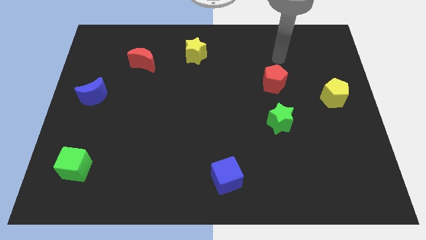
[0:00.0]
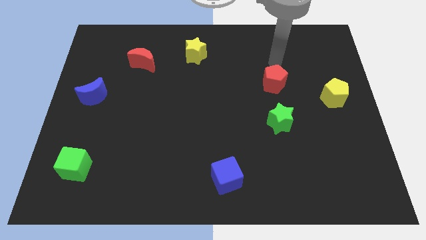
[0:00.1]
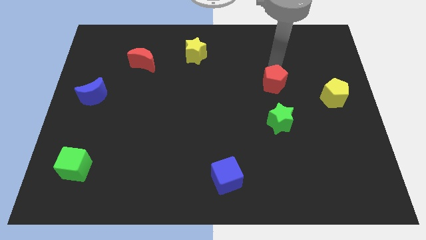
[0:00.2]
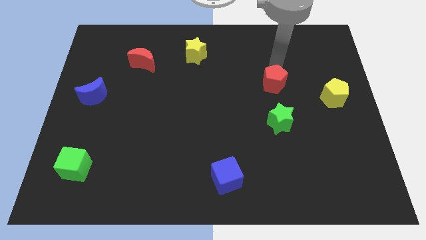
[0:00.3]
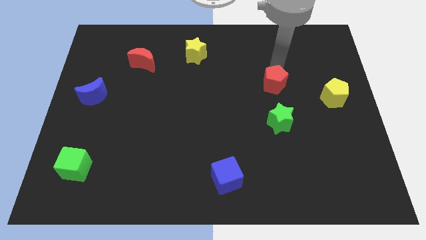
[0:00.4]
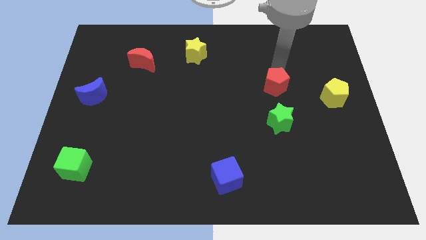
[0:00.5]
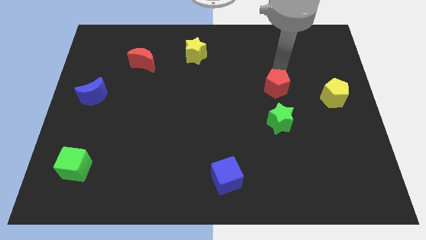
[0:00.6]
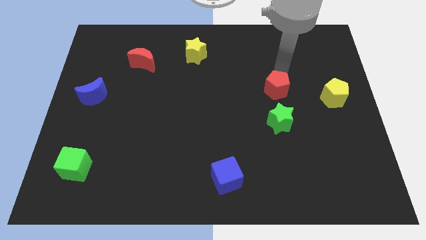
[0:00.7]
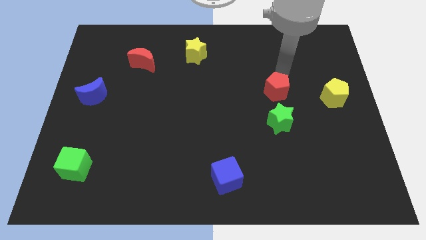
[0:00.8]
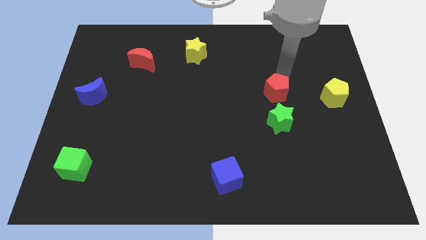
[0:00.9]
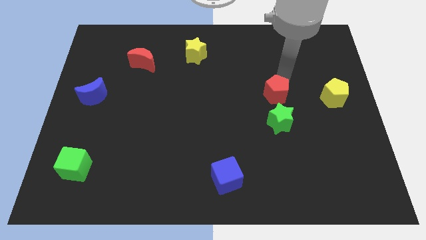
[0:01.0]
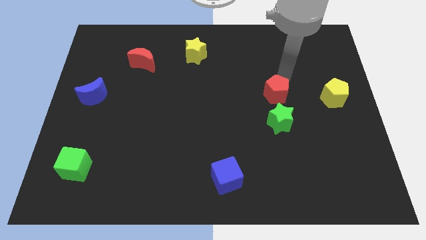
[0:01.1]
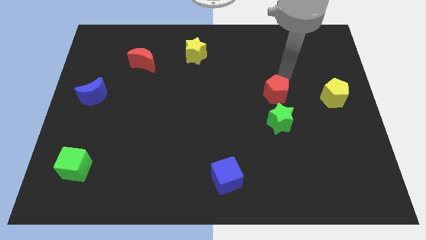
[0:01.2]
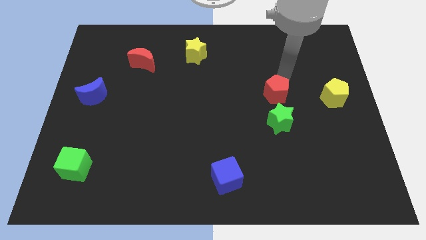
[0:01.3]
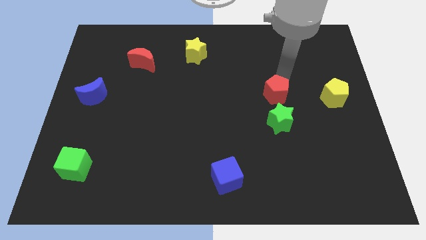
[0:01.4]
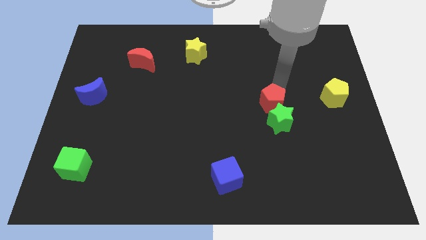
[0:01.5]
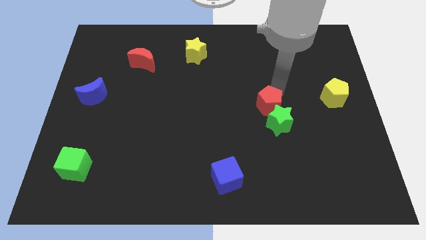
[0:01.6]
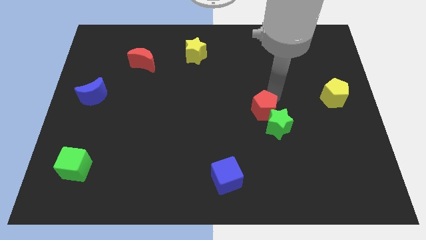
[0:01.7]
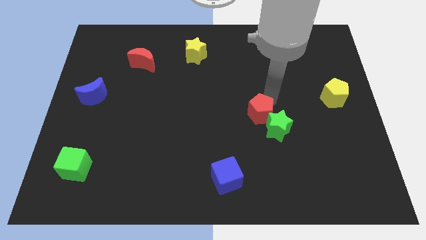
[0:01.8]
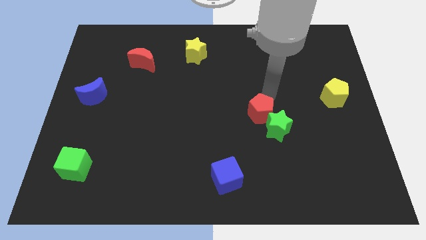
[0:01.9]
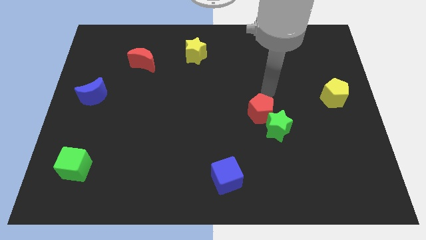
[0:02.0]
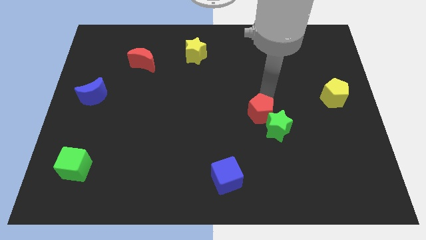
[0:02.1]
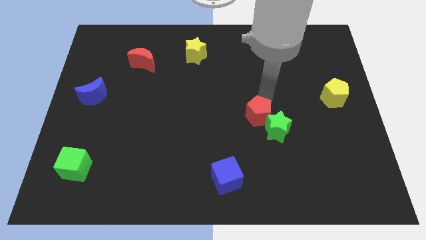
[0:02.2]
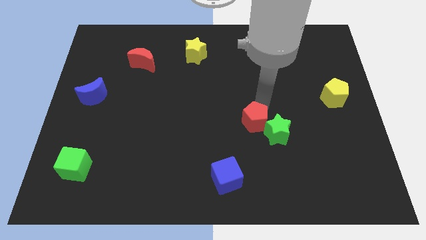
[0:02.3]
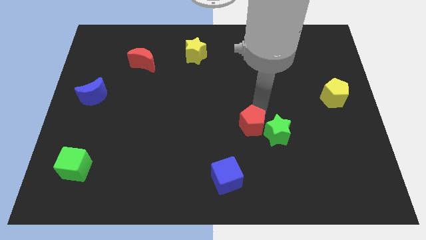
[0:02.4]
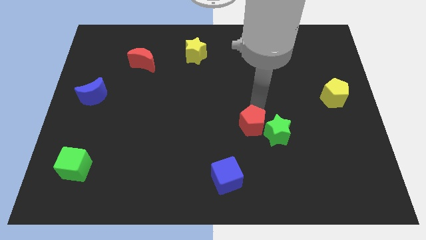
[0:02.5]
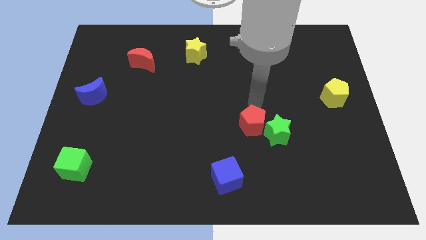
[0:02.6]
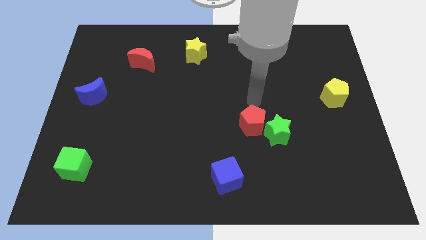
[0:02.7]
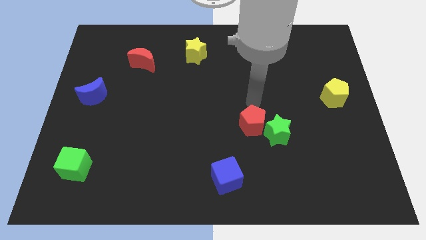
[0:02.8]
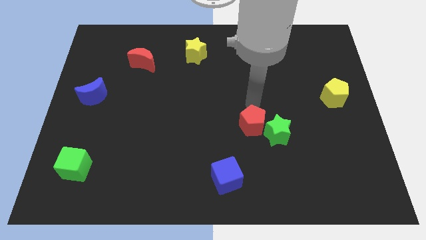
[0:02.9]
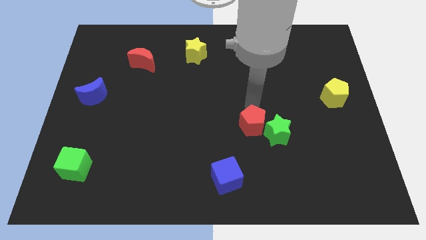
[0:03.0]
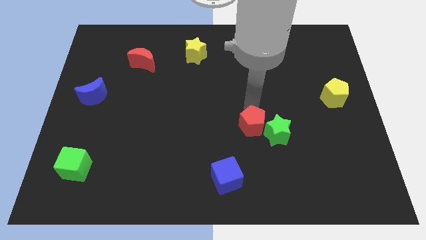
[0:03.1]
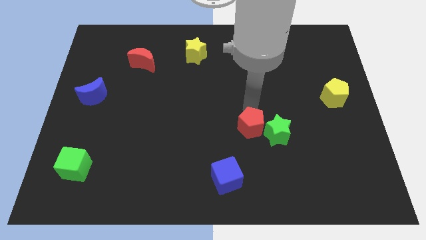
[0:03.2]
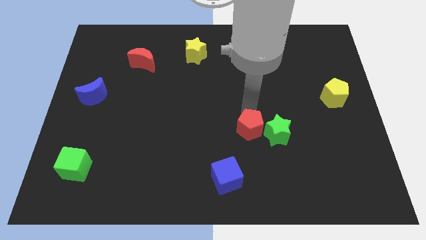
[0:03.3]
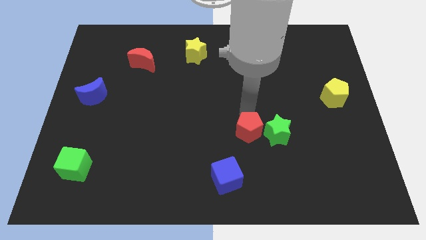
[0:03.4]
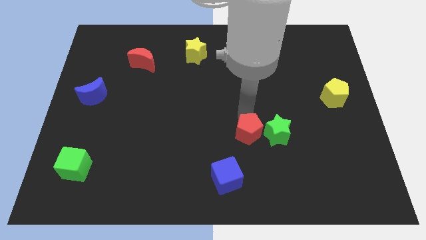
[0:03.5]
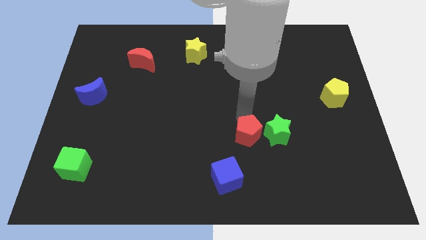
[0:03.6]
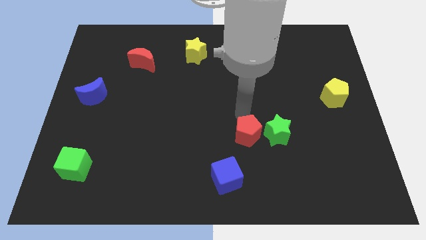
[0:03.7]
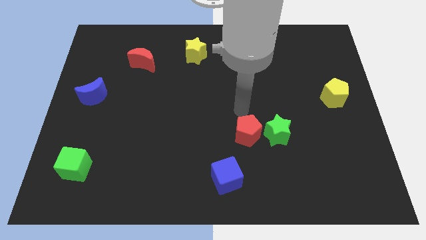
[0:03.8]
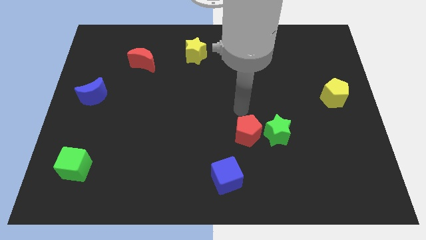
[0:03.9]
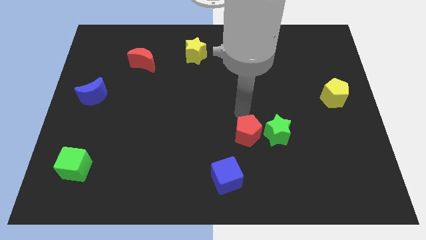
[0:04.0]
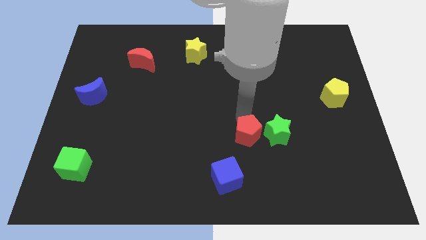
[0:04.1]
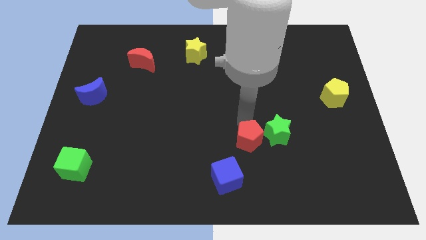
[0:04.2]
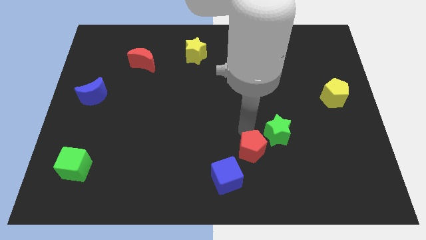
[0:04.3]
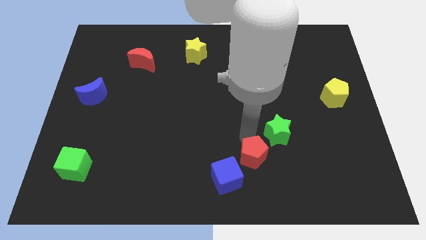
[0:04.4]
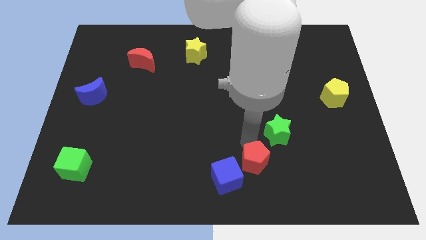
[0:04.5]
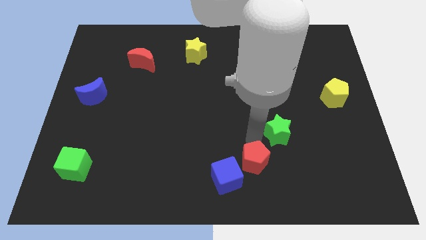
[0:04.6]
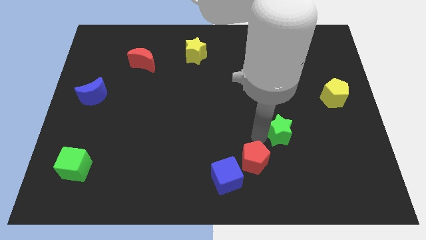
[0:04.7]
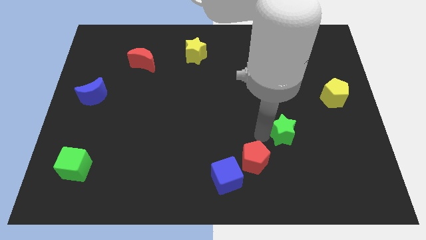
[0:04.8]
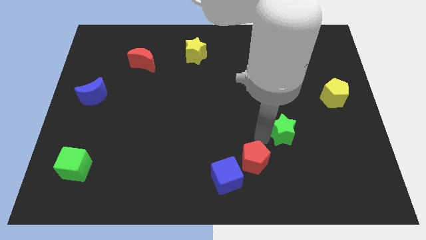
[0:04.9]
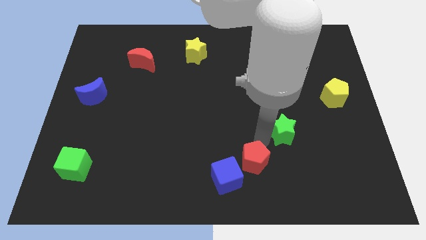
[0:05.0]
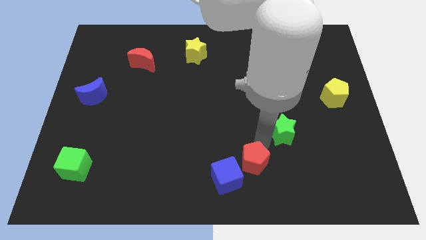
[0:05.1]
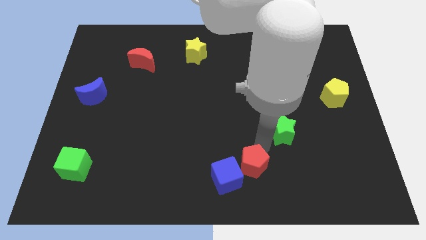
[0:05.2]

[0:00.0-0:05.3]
move the red pentagon to the bottom

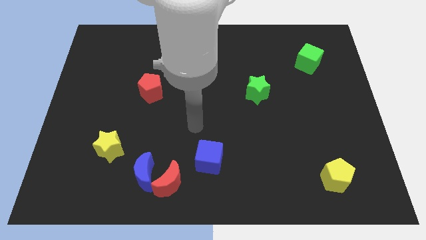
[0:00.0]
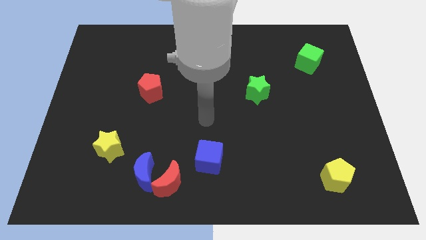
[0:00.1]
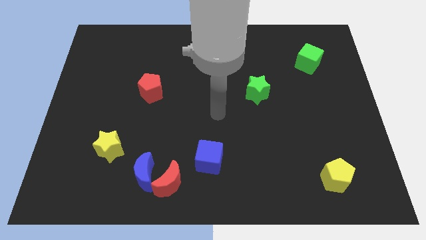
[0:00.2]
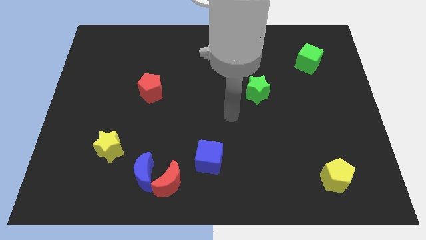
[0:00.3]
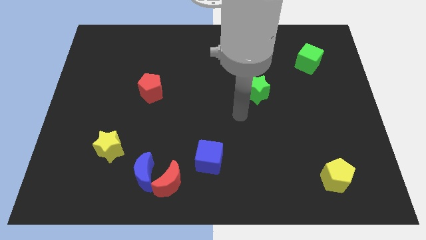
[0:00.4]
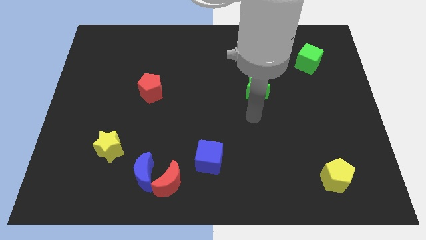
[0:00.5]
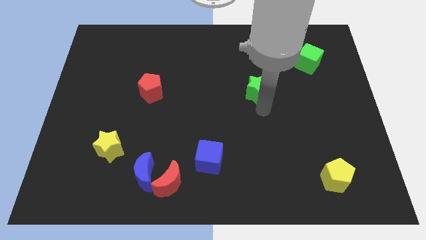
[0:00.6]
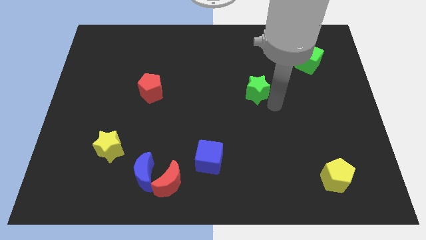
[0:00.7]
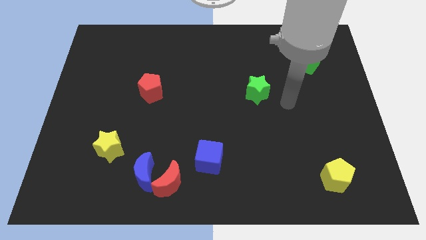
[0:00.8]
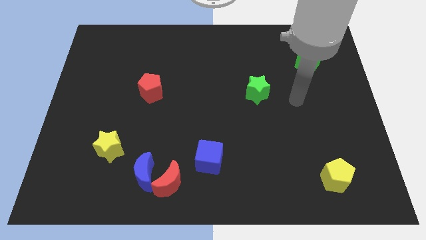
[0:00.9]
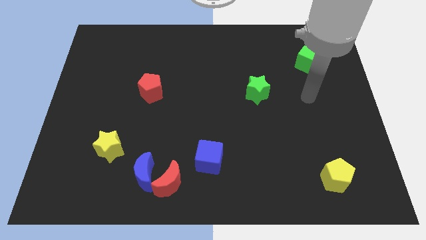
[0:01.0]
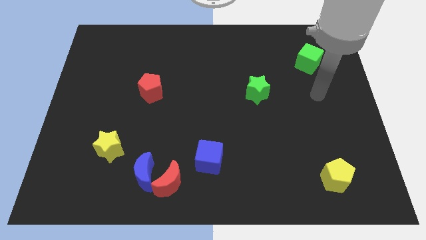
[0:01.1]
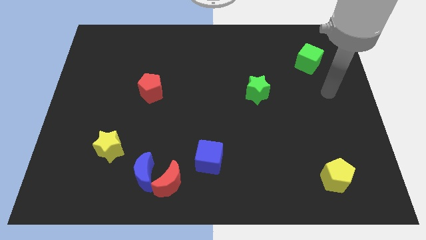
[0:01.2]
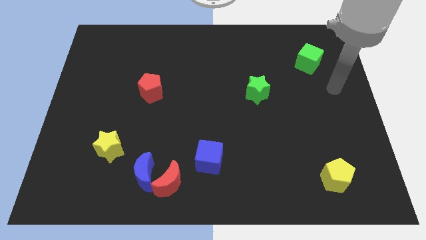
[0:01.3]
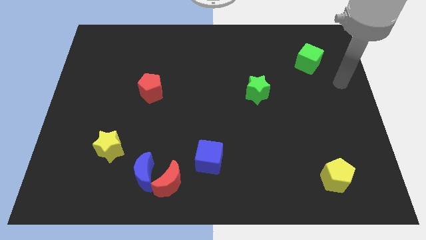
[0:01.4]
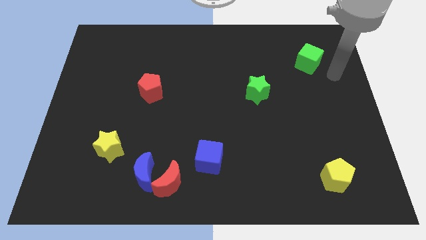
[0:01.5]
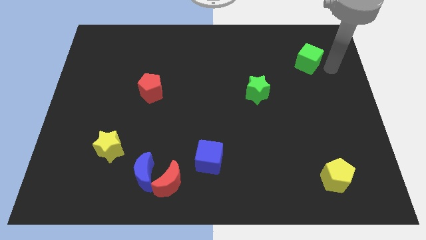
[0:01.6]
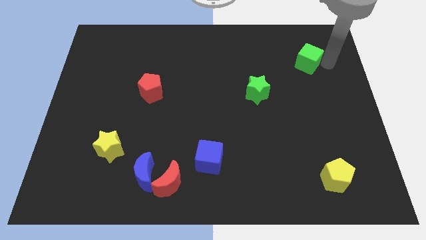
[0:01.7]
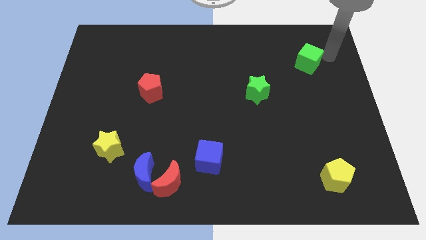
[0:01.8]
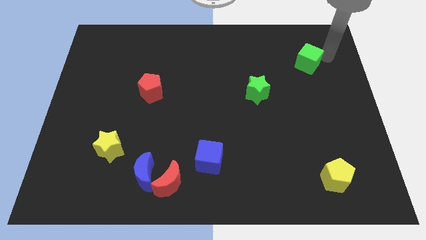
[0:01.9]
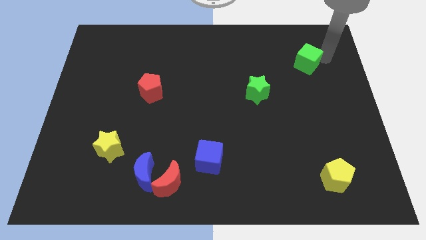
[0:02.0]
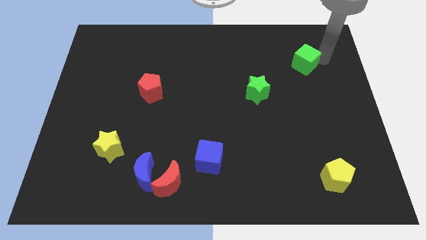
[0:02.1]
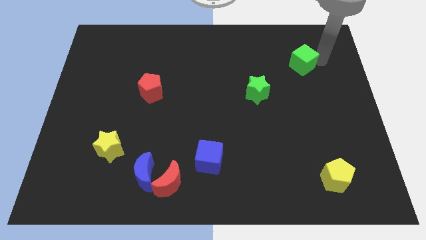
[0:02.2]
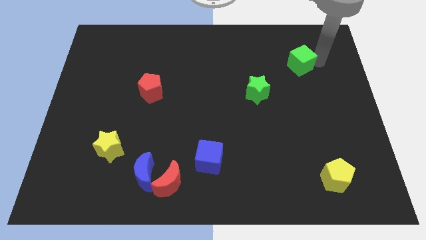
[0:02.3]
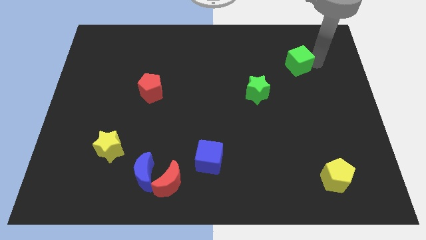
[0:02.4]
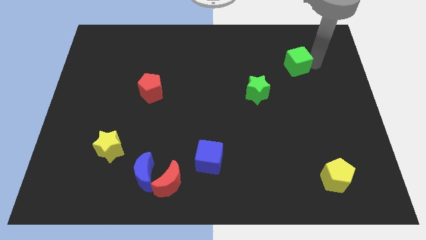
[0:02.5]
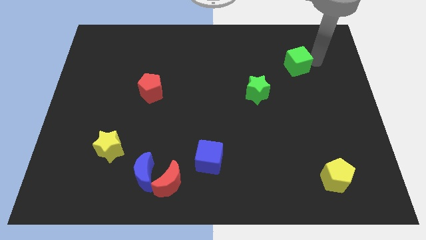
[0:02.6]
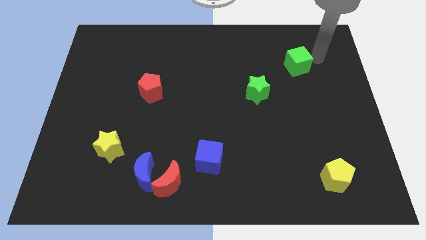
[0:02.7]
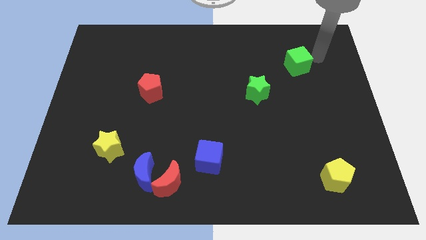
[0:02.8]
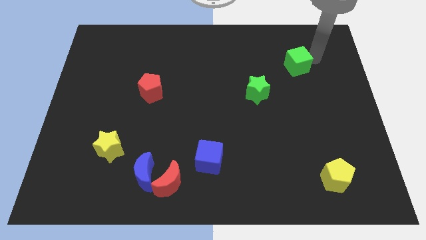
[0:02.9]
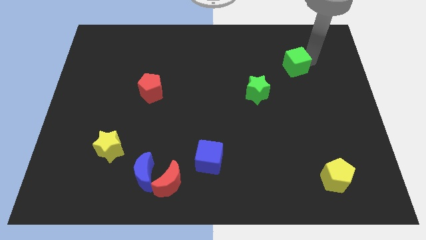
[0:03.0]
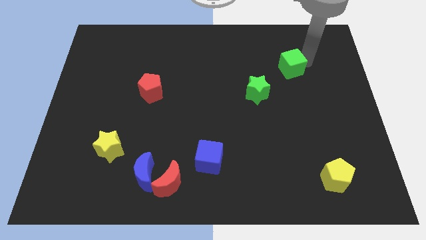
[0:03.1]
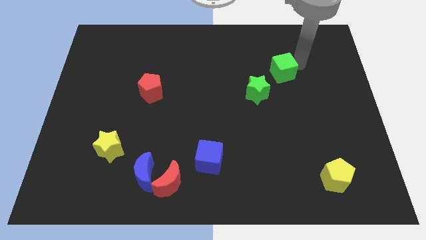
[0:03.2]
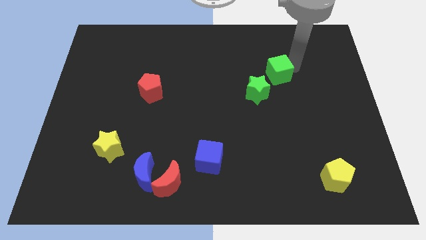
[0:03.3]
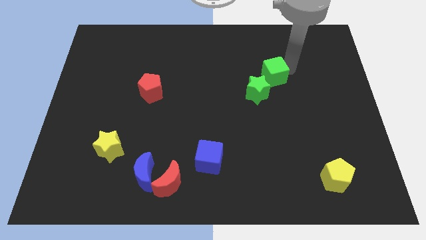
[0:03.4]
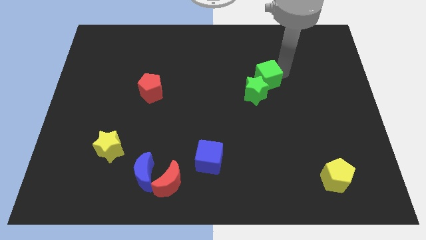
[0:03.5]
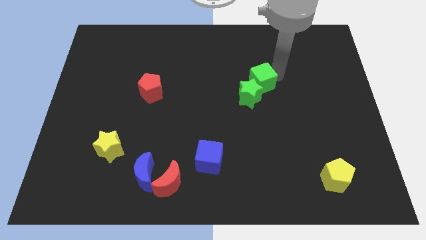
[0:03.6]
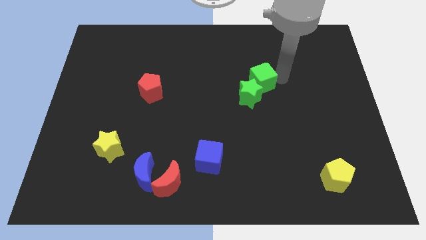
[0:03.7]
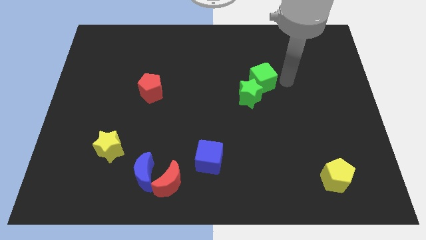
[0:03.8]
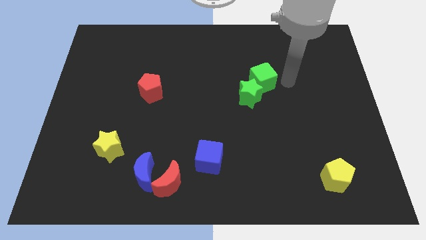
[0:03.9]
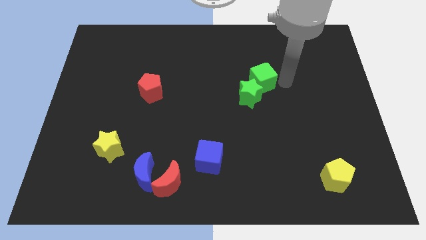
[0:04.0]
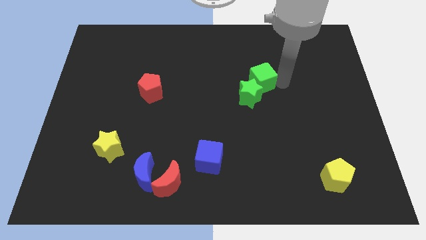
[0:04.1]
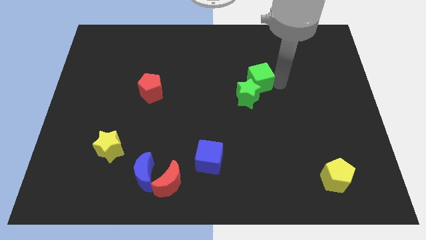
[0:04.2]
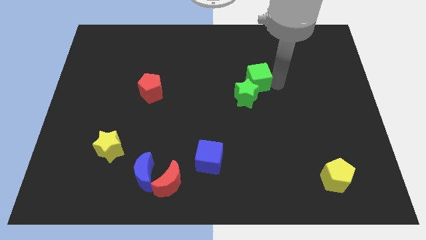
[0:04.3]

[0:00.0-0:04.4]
slide the green cube to the center of the board
